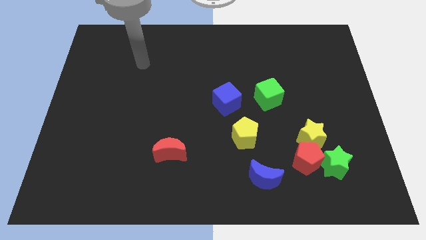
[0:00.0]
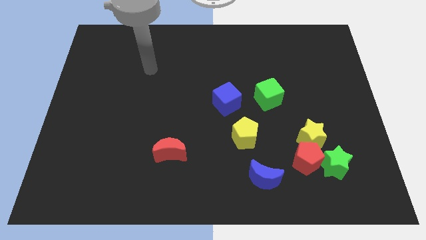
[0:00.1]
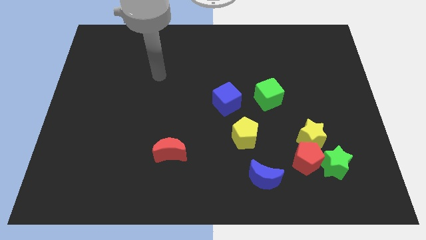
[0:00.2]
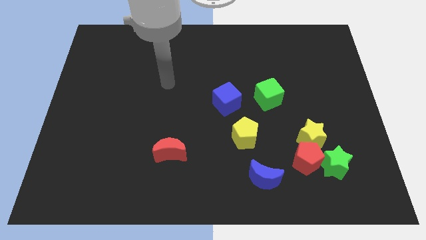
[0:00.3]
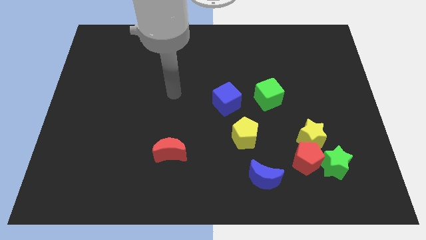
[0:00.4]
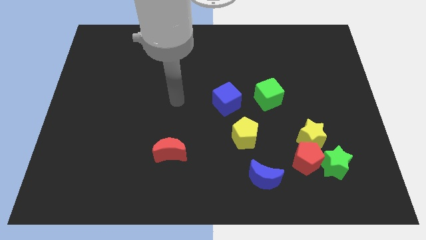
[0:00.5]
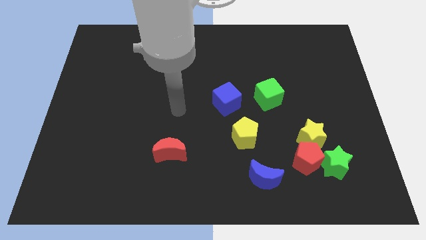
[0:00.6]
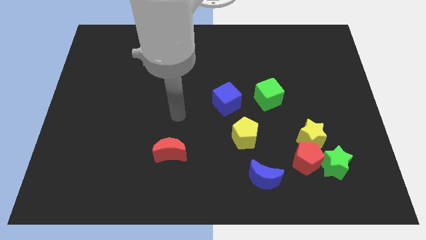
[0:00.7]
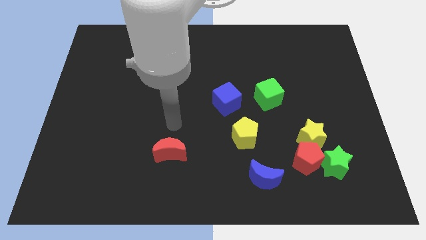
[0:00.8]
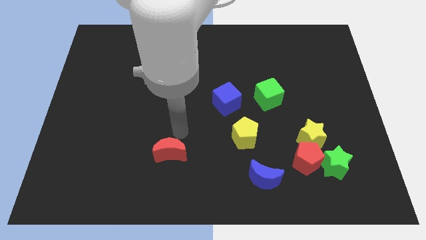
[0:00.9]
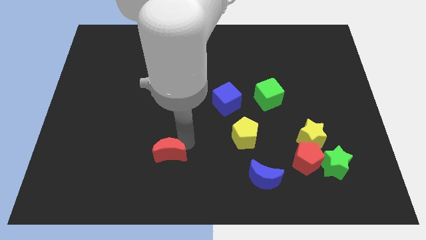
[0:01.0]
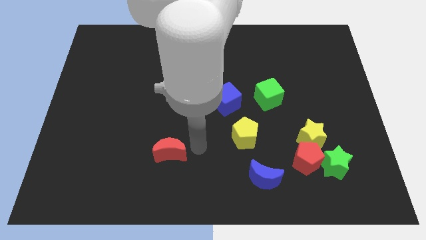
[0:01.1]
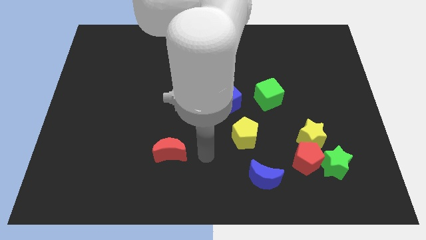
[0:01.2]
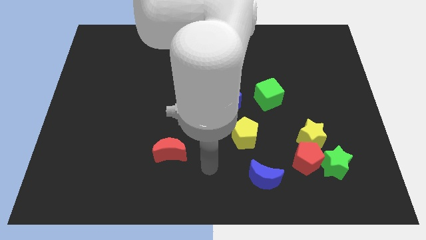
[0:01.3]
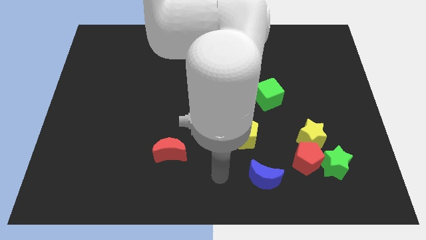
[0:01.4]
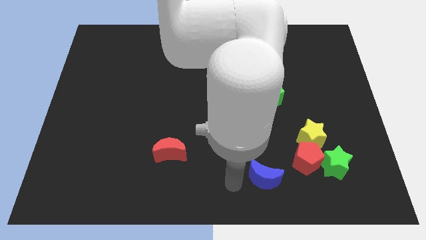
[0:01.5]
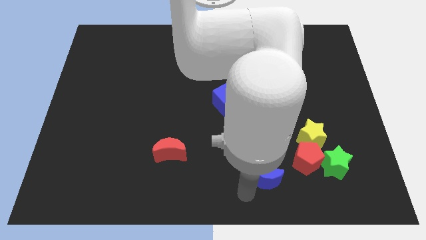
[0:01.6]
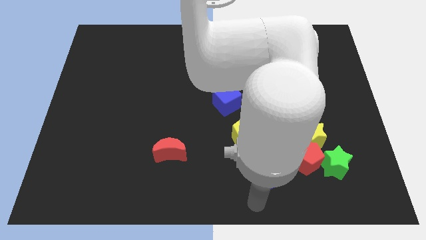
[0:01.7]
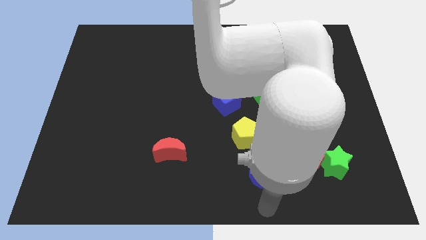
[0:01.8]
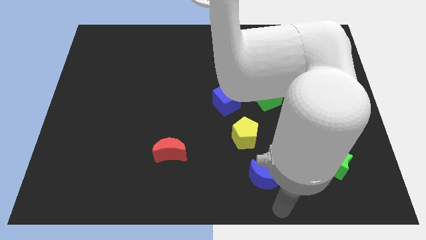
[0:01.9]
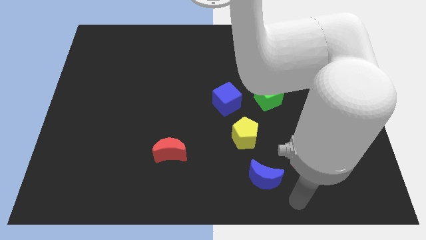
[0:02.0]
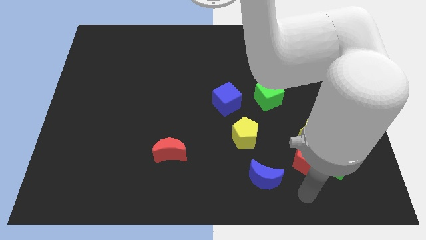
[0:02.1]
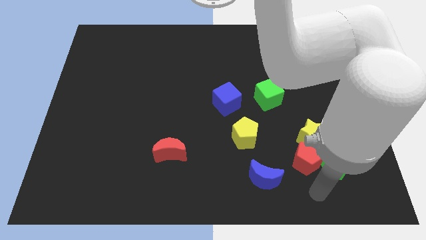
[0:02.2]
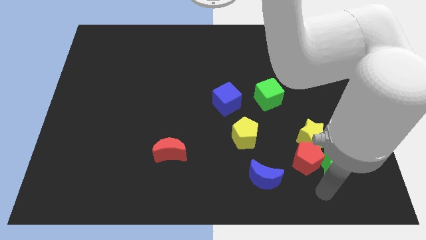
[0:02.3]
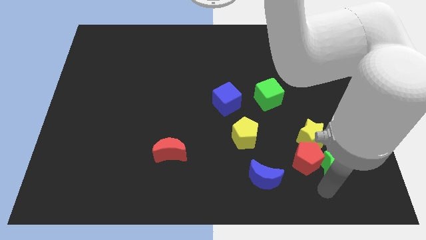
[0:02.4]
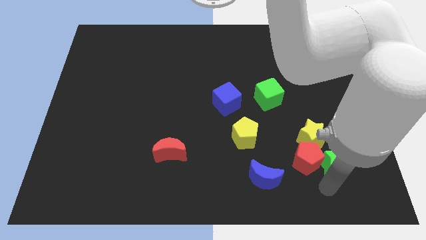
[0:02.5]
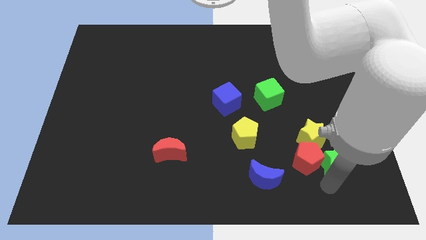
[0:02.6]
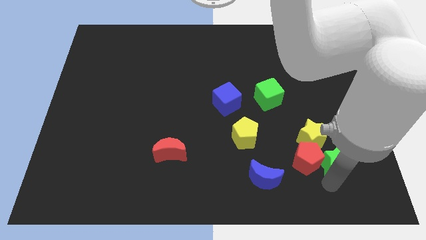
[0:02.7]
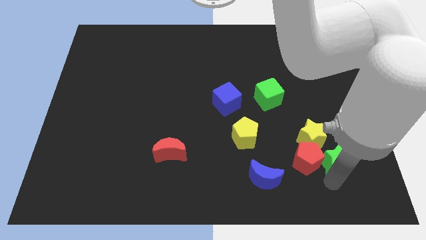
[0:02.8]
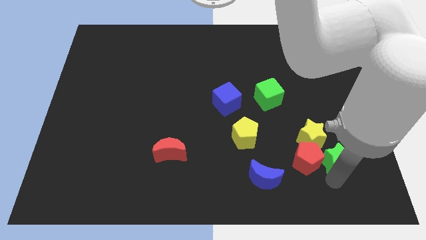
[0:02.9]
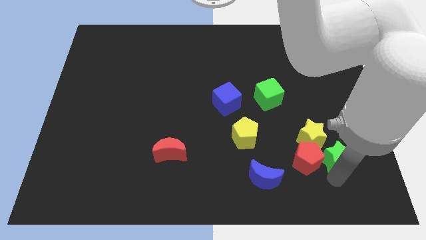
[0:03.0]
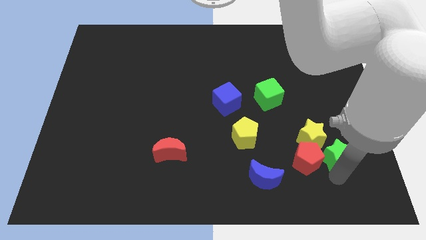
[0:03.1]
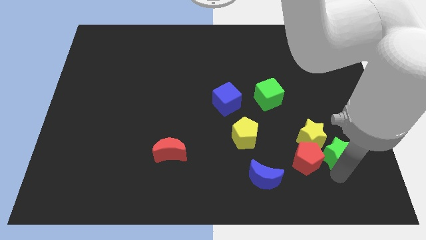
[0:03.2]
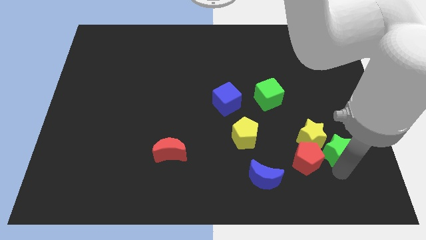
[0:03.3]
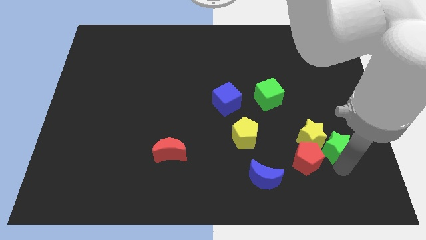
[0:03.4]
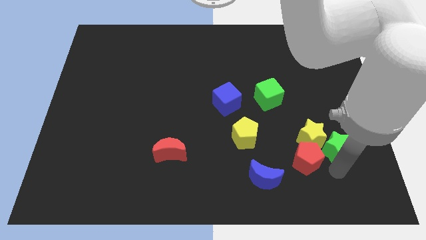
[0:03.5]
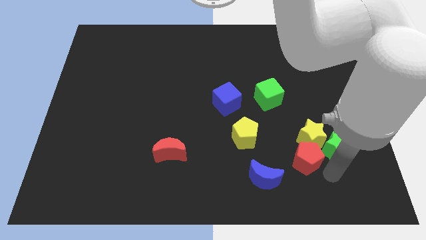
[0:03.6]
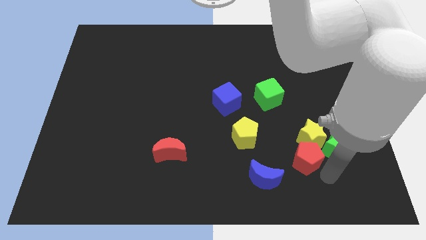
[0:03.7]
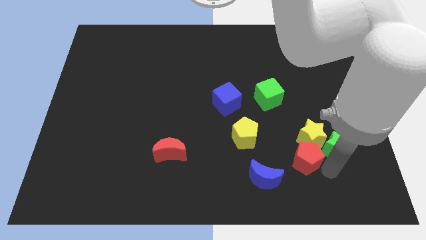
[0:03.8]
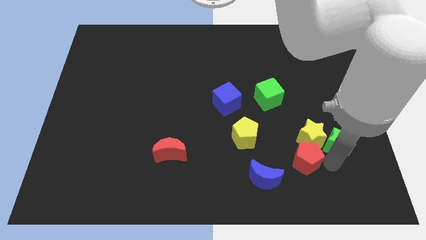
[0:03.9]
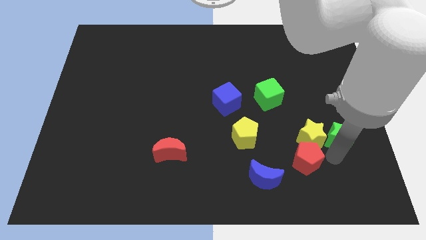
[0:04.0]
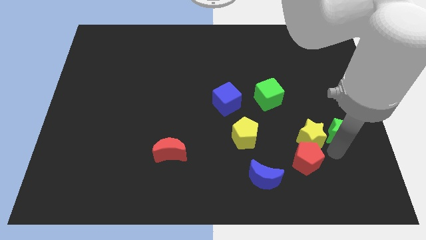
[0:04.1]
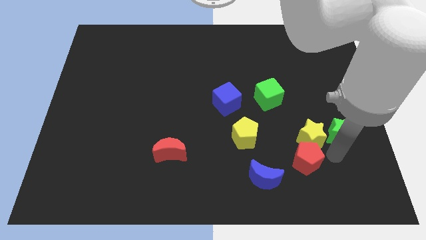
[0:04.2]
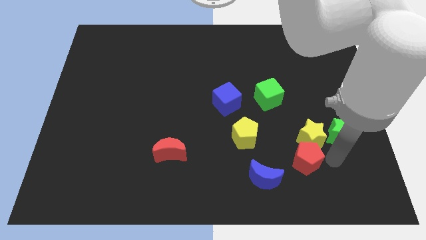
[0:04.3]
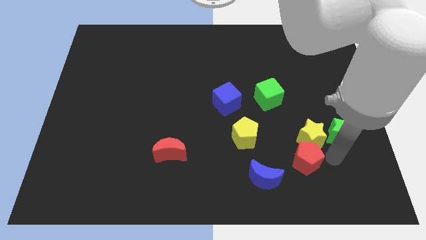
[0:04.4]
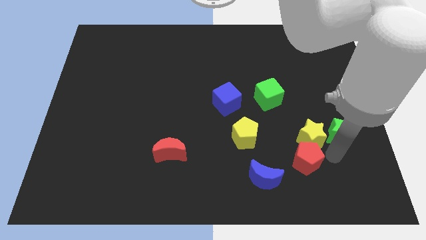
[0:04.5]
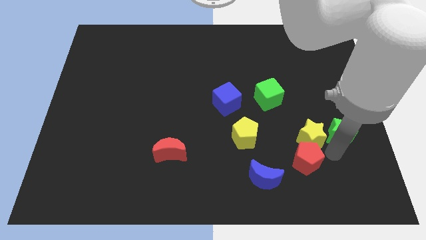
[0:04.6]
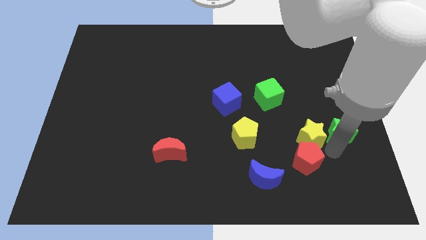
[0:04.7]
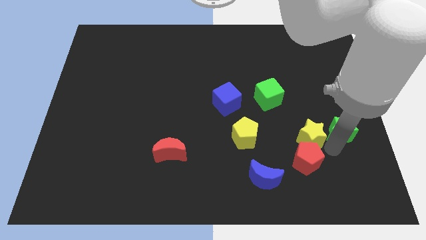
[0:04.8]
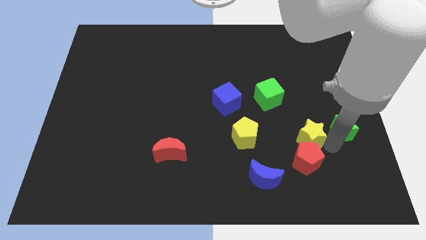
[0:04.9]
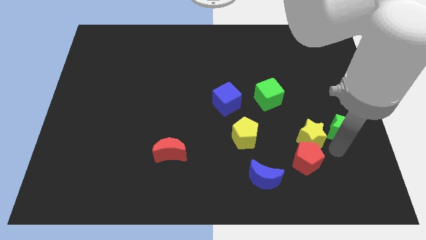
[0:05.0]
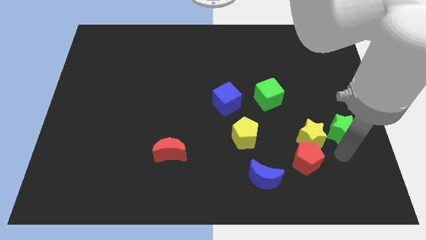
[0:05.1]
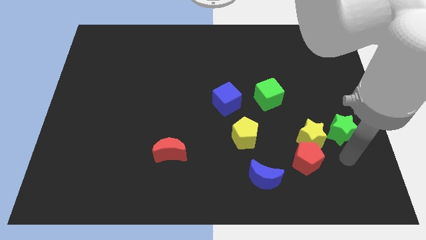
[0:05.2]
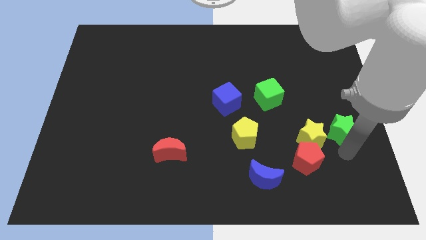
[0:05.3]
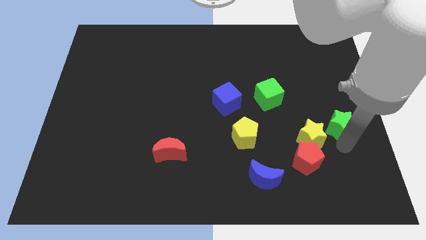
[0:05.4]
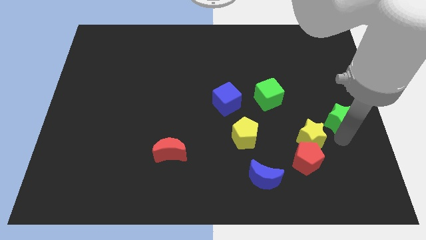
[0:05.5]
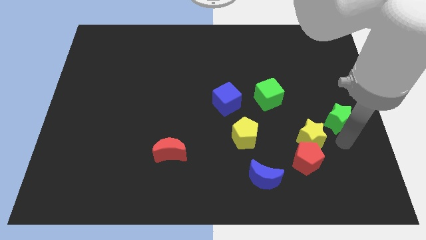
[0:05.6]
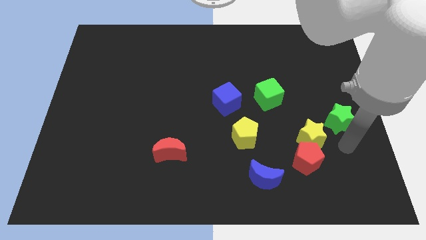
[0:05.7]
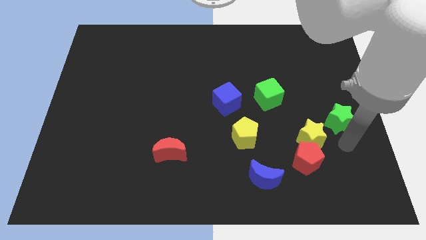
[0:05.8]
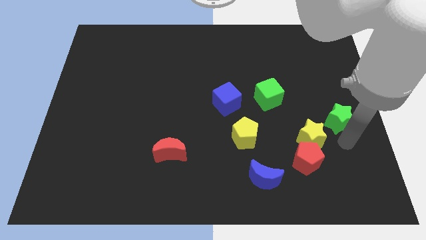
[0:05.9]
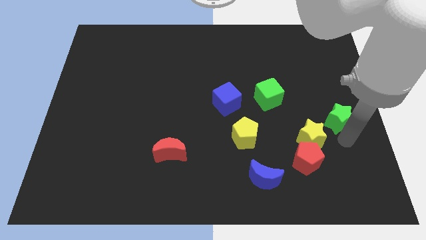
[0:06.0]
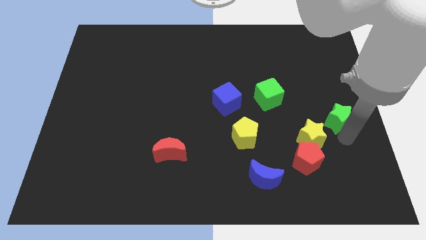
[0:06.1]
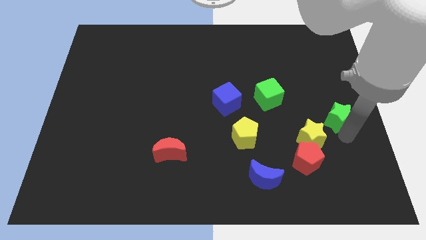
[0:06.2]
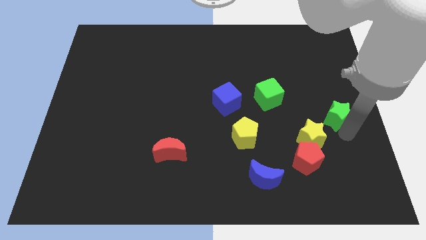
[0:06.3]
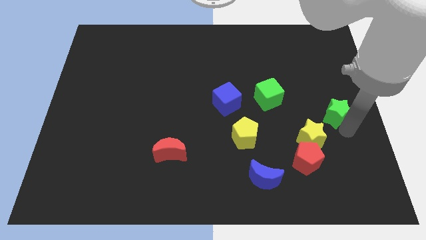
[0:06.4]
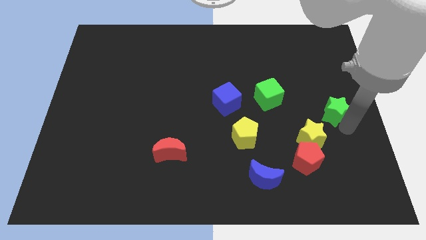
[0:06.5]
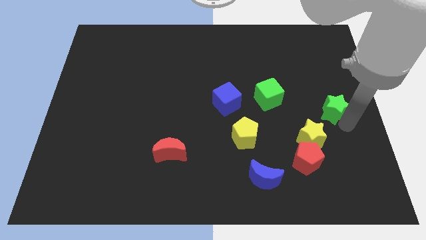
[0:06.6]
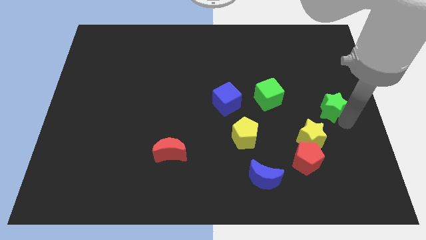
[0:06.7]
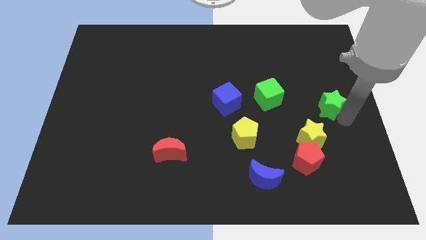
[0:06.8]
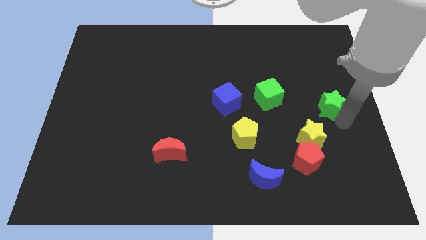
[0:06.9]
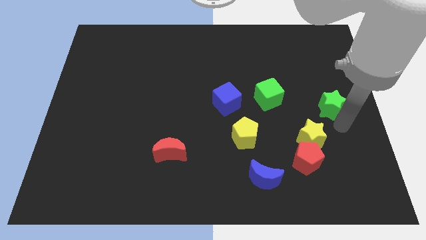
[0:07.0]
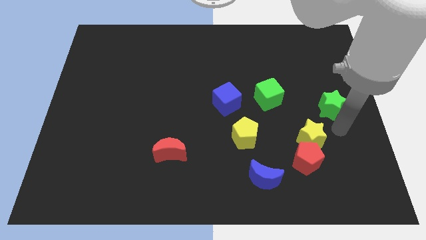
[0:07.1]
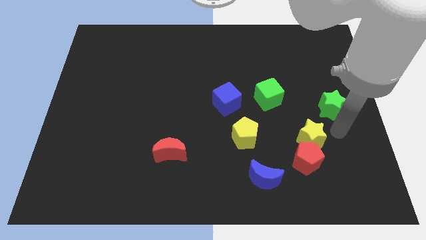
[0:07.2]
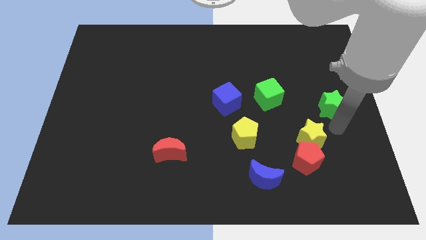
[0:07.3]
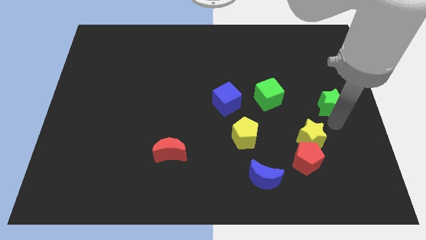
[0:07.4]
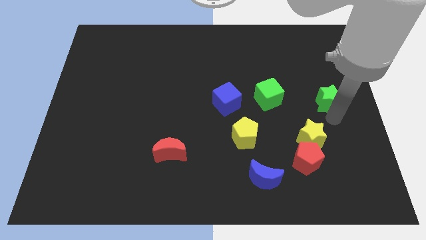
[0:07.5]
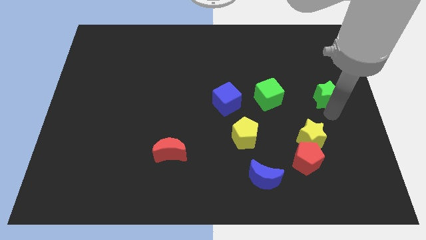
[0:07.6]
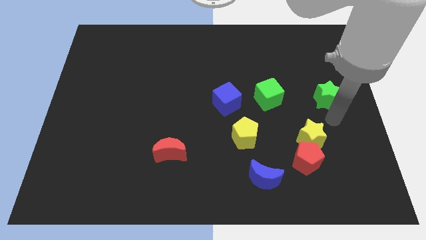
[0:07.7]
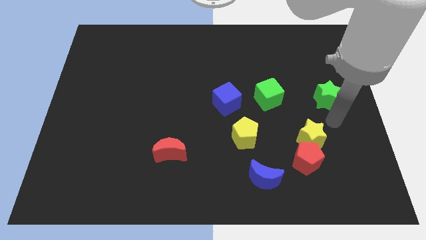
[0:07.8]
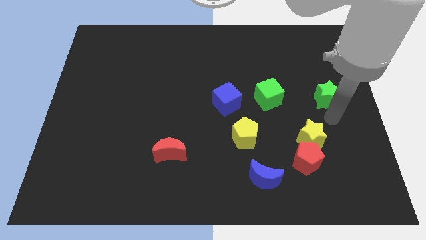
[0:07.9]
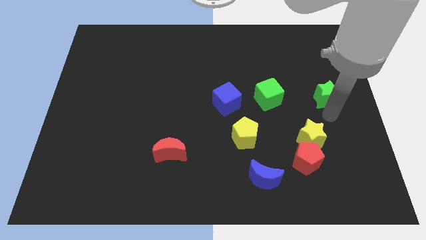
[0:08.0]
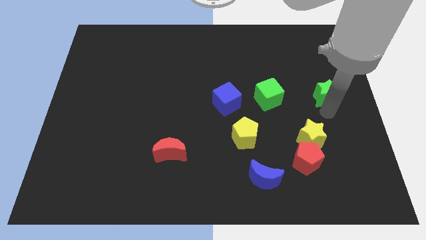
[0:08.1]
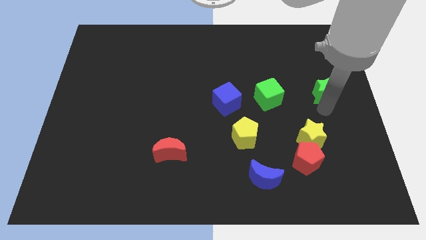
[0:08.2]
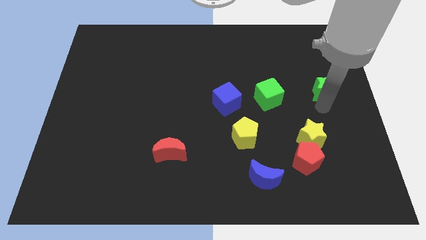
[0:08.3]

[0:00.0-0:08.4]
push the green star up
